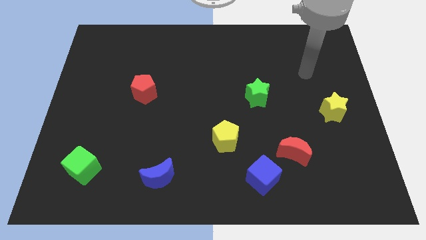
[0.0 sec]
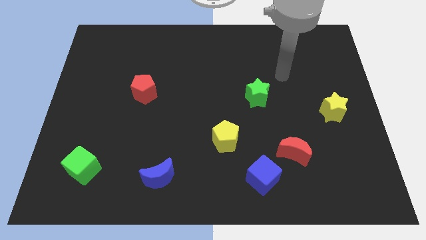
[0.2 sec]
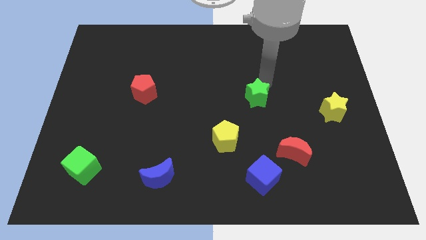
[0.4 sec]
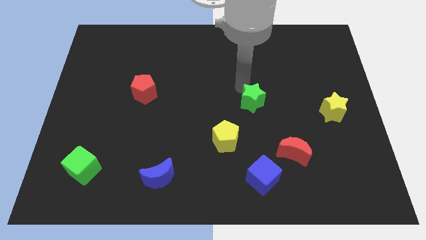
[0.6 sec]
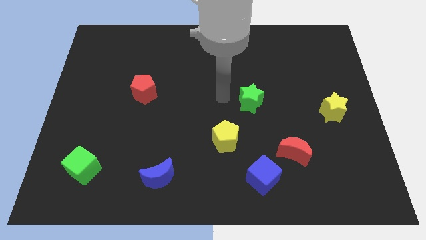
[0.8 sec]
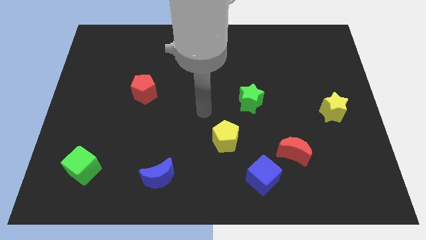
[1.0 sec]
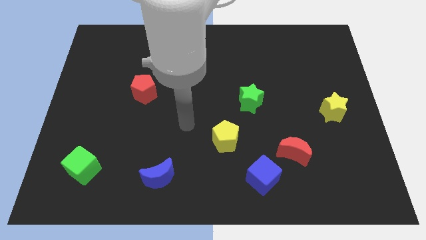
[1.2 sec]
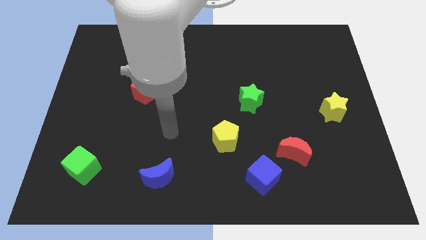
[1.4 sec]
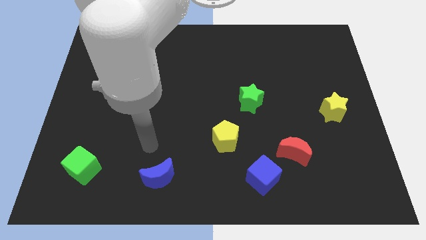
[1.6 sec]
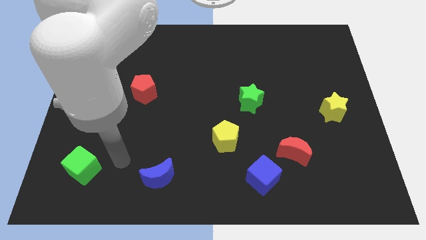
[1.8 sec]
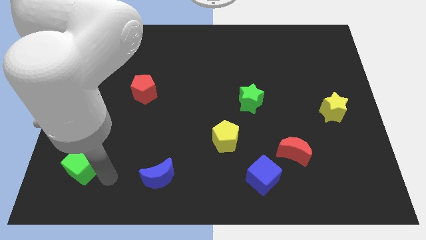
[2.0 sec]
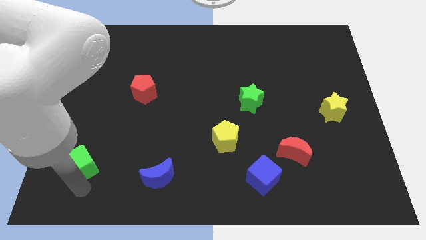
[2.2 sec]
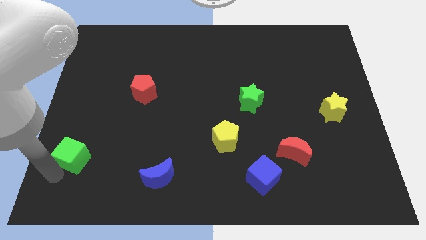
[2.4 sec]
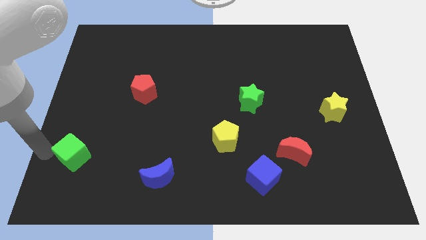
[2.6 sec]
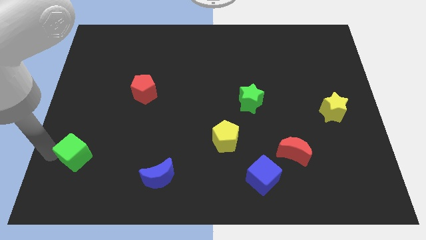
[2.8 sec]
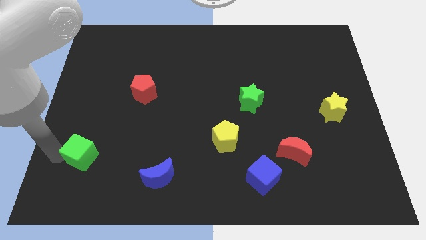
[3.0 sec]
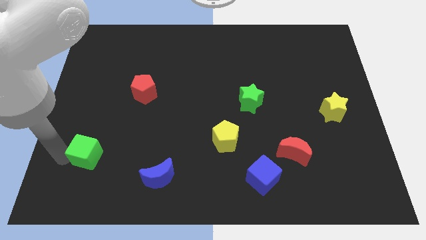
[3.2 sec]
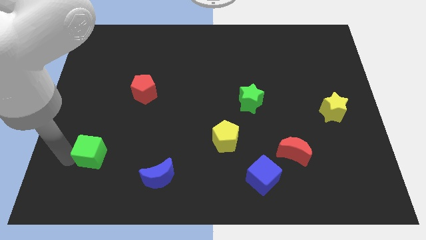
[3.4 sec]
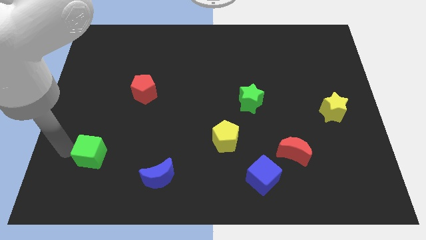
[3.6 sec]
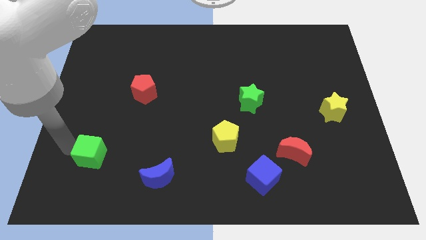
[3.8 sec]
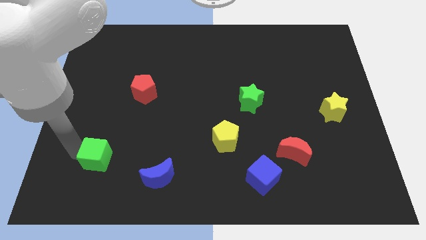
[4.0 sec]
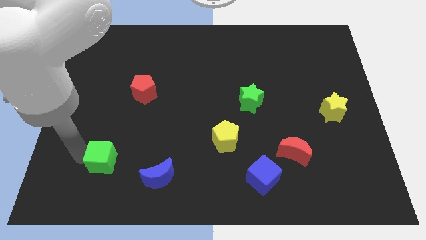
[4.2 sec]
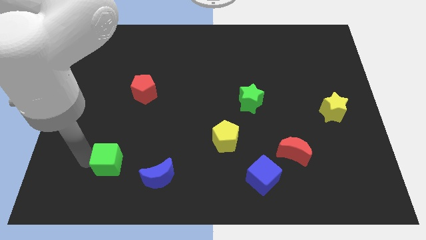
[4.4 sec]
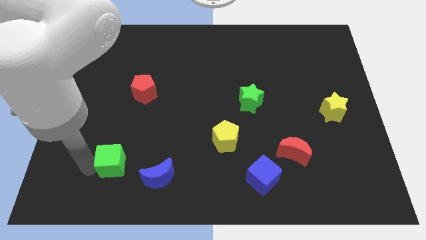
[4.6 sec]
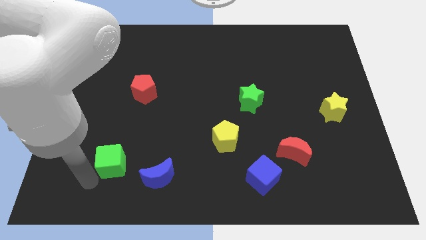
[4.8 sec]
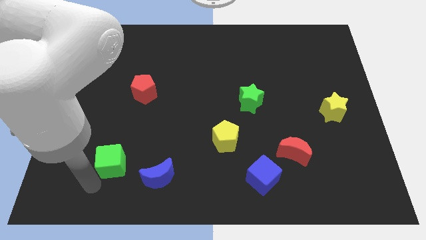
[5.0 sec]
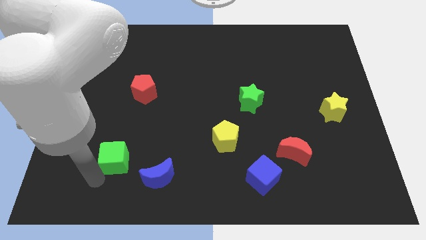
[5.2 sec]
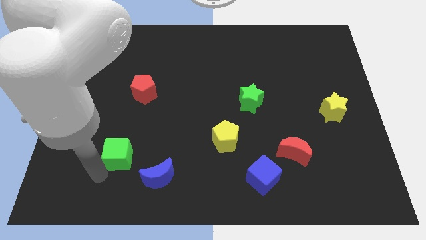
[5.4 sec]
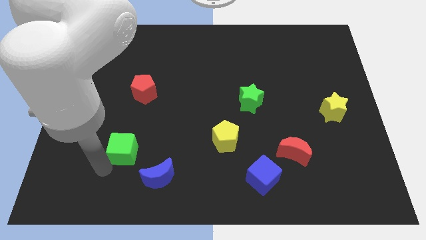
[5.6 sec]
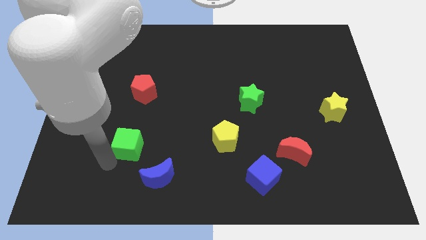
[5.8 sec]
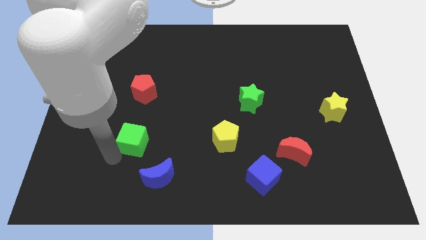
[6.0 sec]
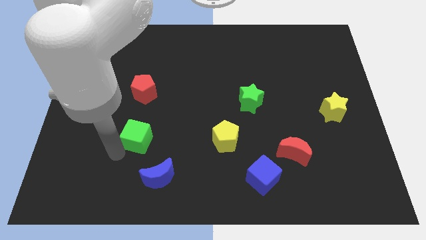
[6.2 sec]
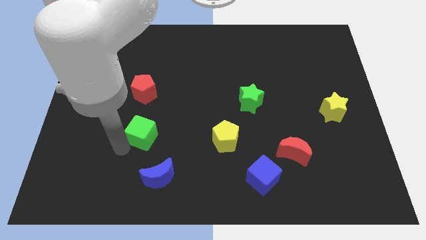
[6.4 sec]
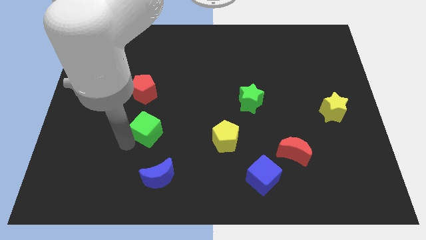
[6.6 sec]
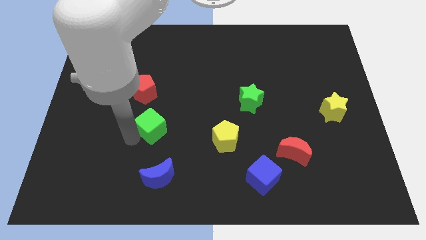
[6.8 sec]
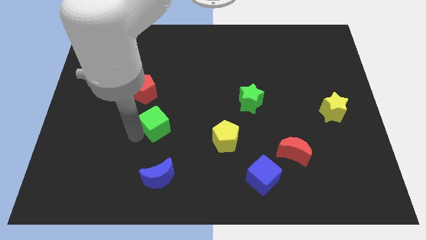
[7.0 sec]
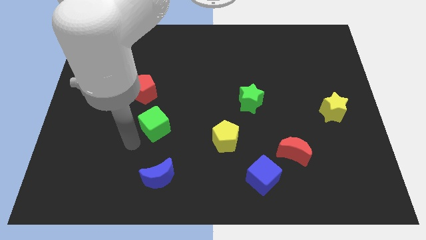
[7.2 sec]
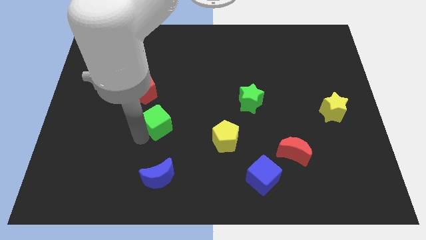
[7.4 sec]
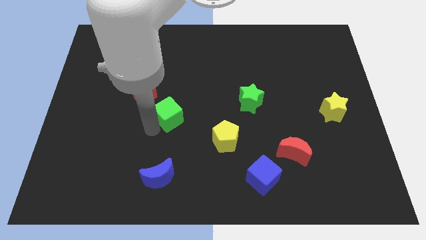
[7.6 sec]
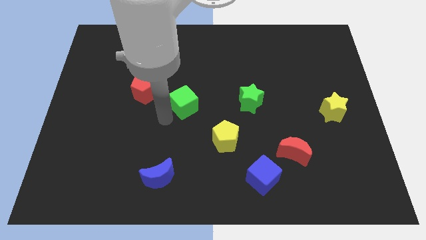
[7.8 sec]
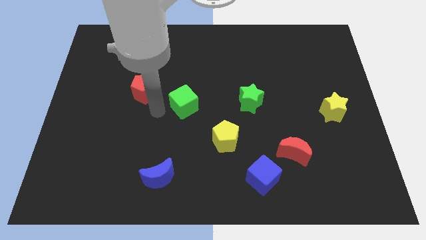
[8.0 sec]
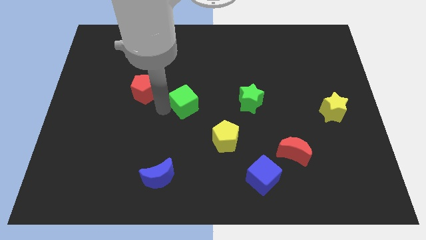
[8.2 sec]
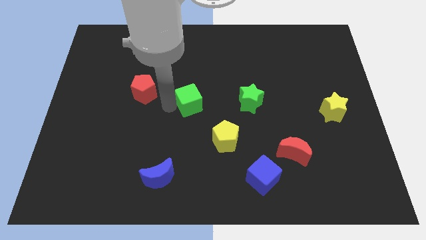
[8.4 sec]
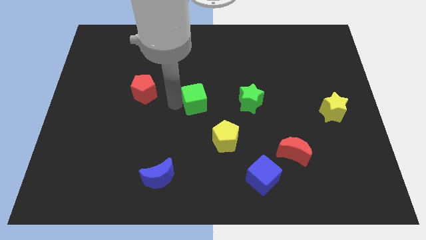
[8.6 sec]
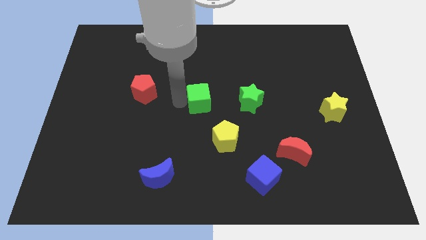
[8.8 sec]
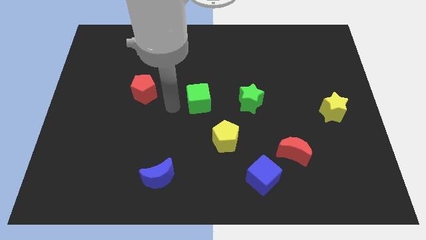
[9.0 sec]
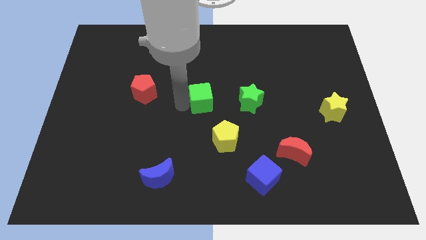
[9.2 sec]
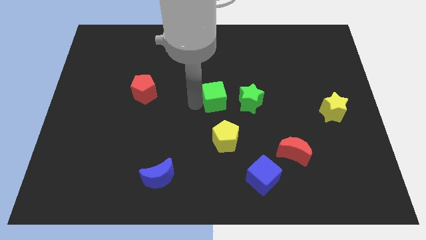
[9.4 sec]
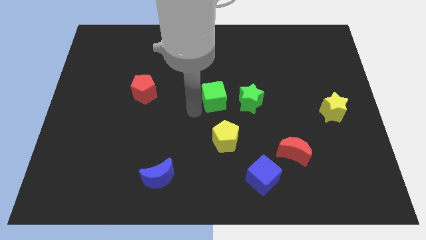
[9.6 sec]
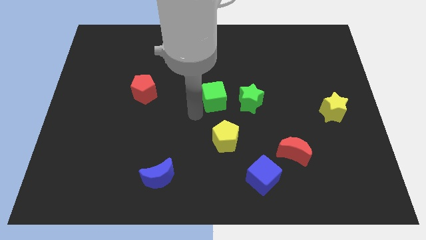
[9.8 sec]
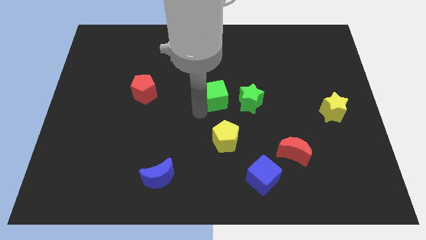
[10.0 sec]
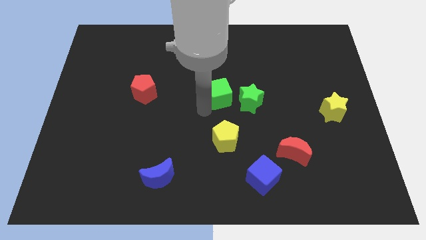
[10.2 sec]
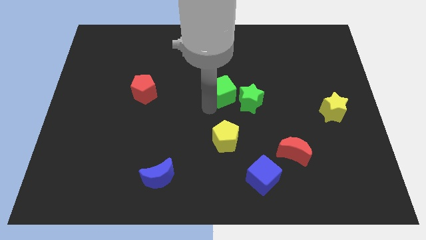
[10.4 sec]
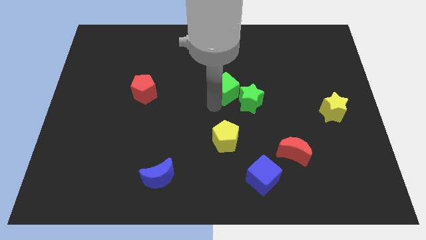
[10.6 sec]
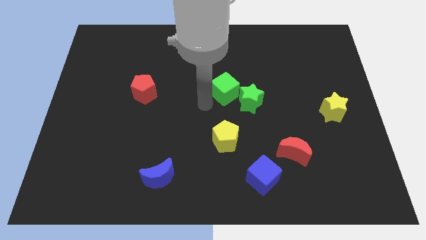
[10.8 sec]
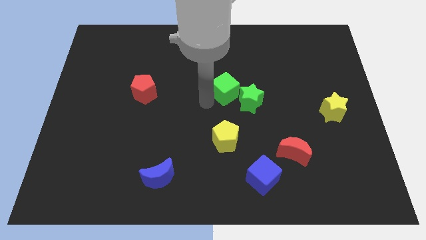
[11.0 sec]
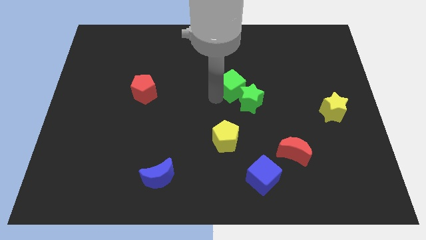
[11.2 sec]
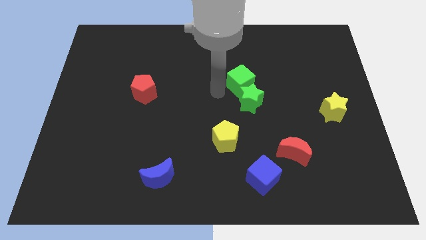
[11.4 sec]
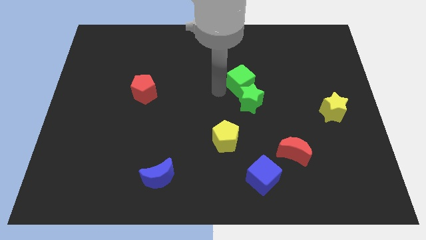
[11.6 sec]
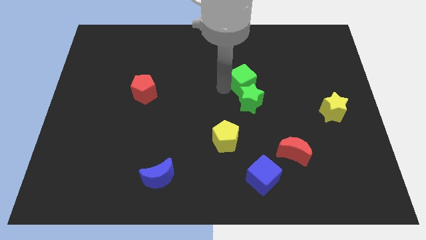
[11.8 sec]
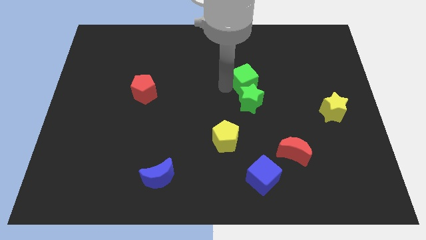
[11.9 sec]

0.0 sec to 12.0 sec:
slide the green cube diagonally up and to the right of the green star

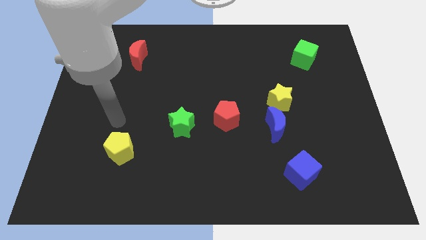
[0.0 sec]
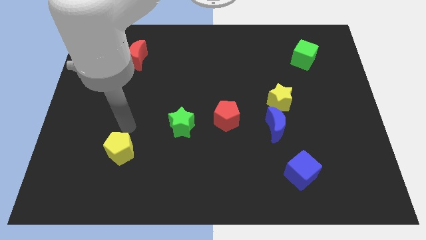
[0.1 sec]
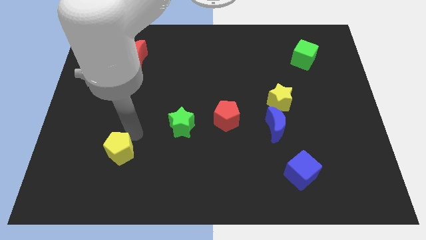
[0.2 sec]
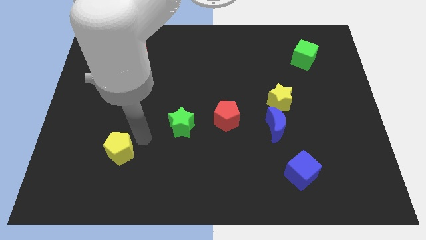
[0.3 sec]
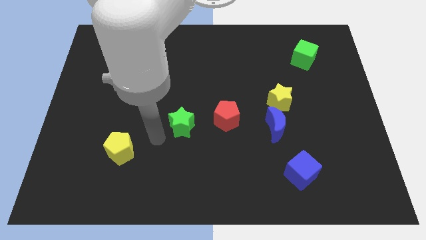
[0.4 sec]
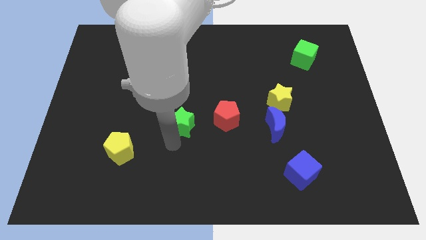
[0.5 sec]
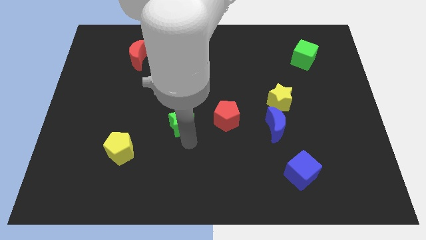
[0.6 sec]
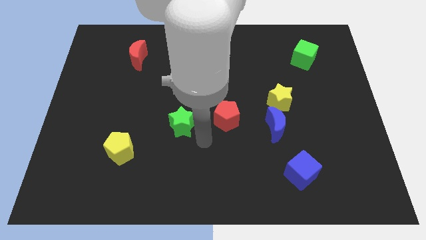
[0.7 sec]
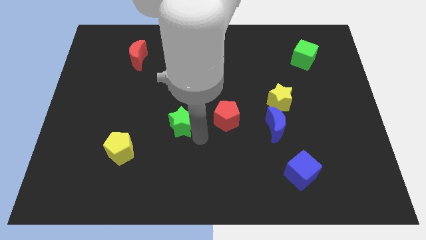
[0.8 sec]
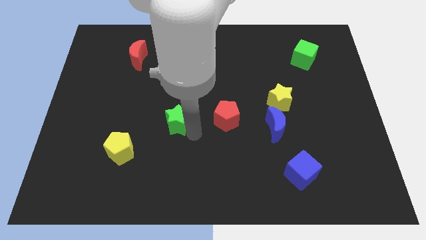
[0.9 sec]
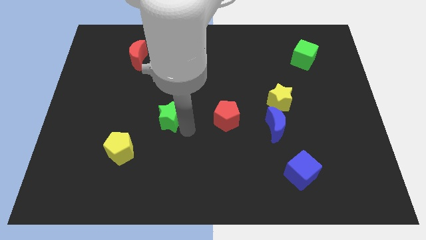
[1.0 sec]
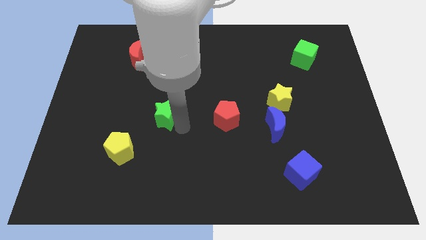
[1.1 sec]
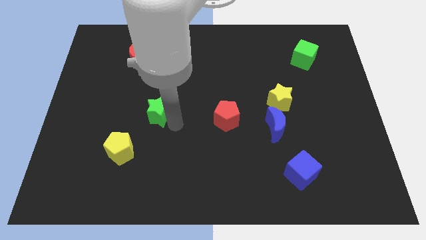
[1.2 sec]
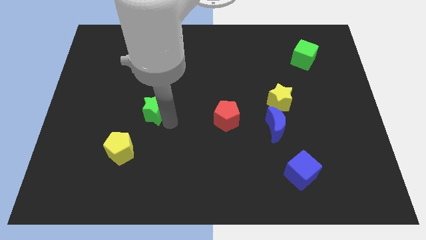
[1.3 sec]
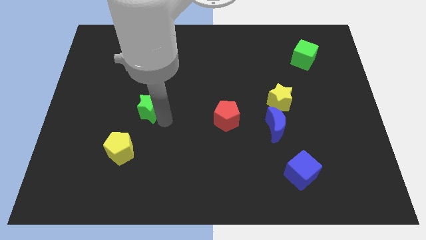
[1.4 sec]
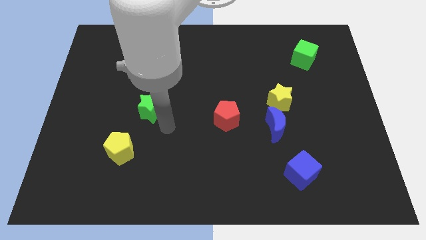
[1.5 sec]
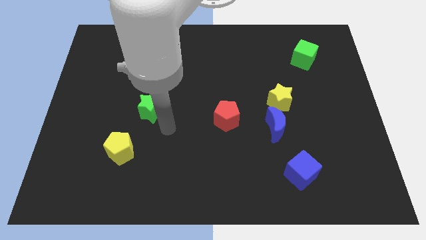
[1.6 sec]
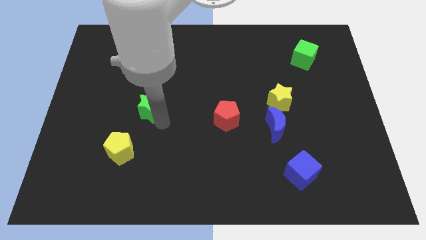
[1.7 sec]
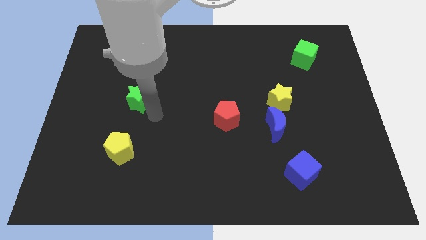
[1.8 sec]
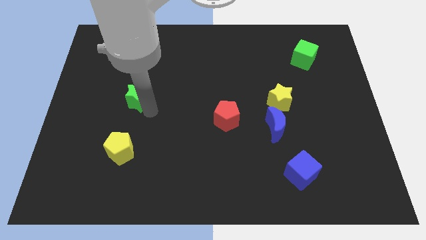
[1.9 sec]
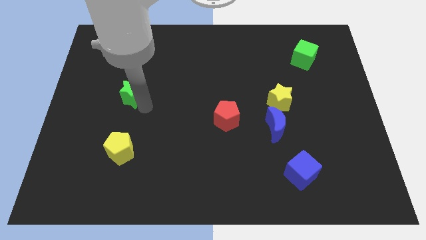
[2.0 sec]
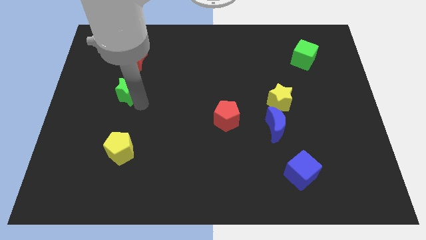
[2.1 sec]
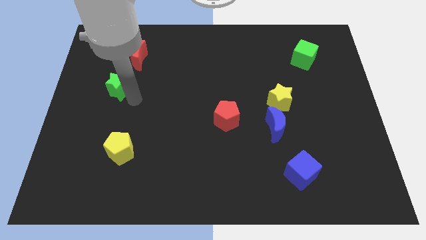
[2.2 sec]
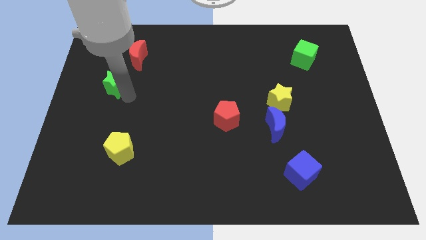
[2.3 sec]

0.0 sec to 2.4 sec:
move the green star to the bottom left side of the red moon
